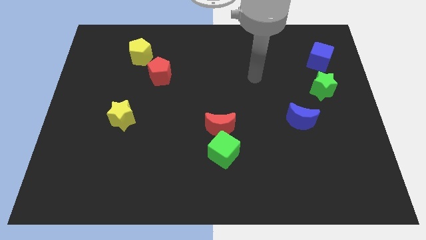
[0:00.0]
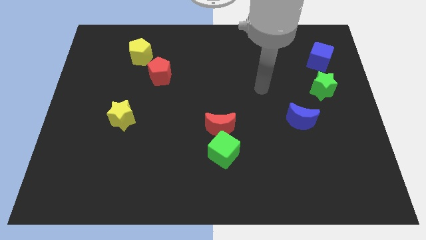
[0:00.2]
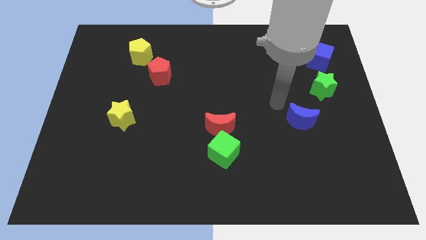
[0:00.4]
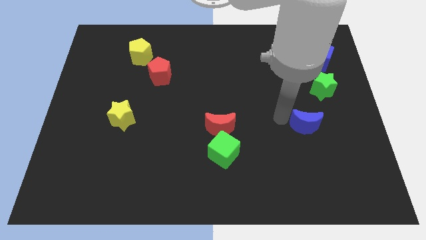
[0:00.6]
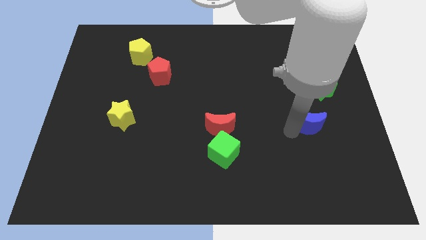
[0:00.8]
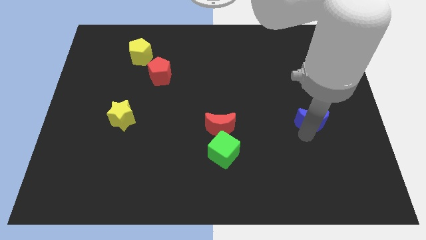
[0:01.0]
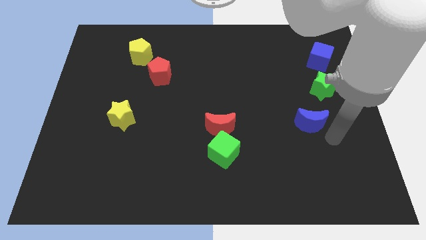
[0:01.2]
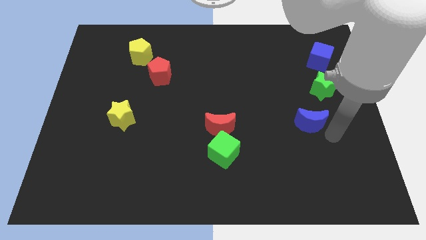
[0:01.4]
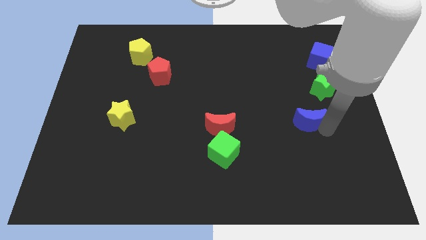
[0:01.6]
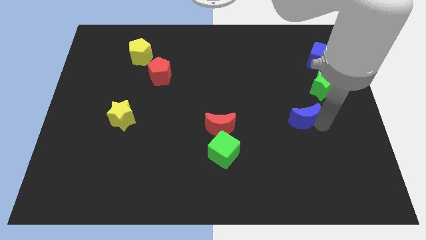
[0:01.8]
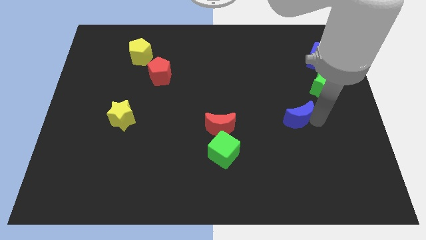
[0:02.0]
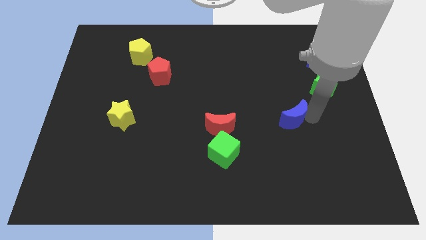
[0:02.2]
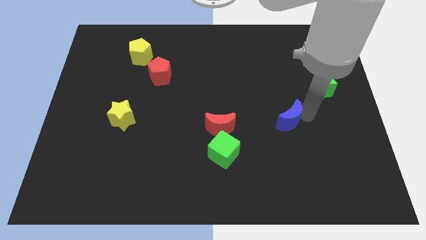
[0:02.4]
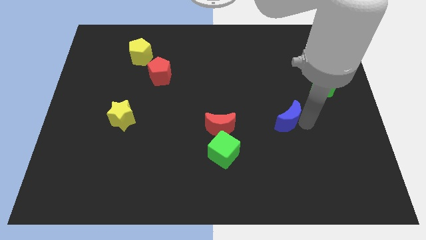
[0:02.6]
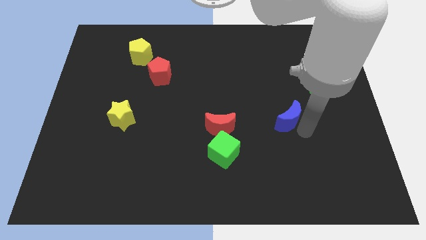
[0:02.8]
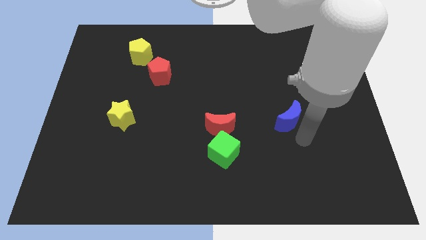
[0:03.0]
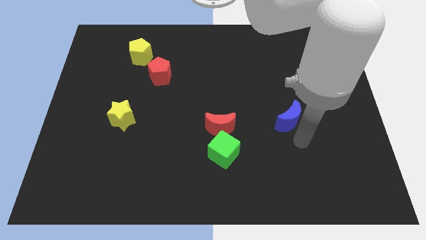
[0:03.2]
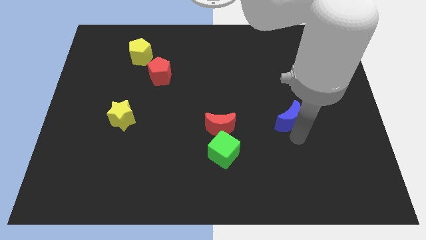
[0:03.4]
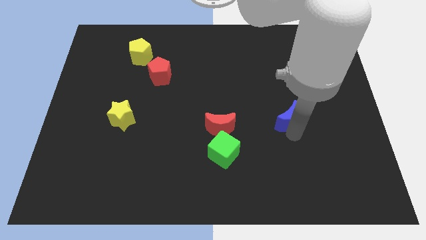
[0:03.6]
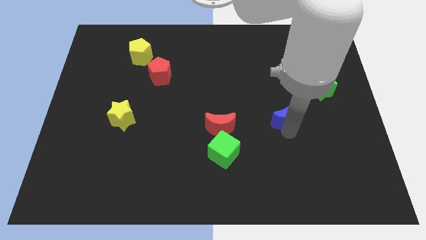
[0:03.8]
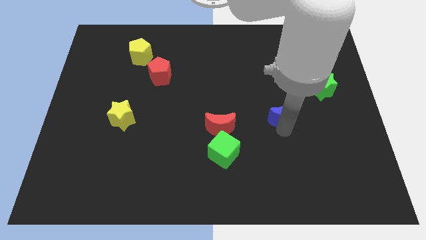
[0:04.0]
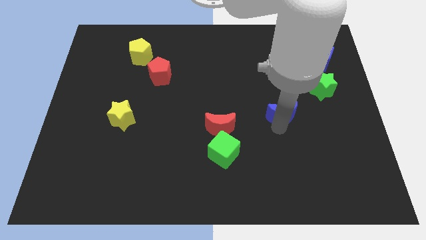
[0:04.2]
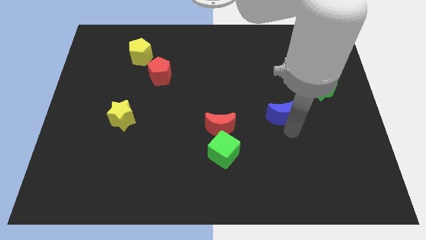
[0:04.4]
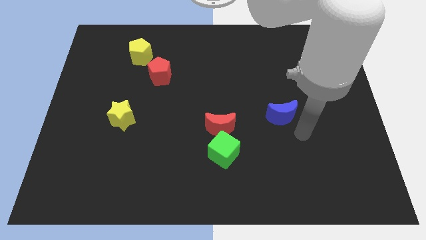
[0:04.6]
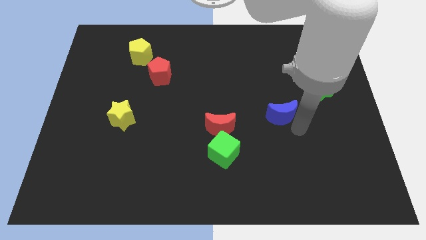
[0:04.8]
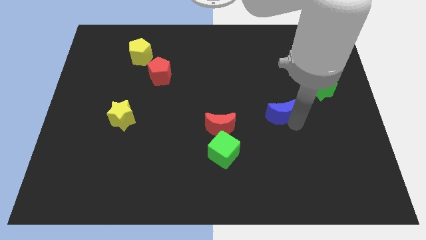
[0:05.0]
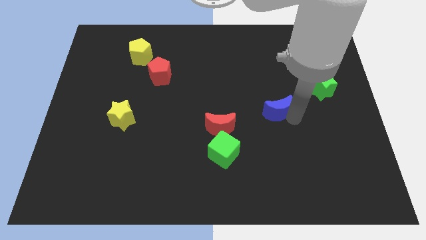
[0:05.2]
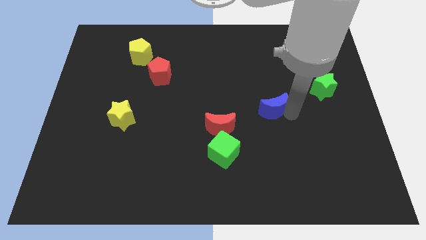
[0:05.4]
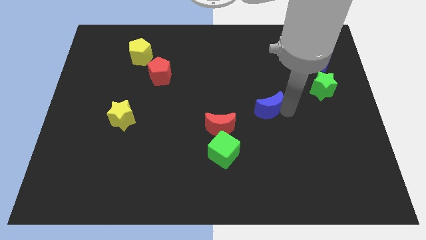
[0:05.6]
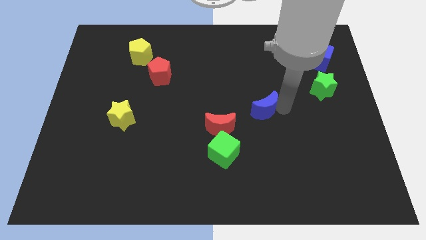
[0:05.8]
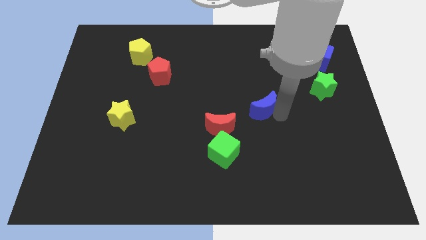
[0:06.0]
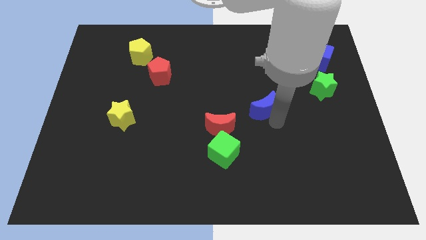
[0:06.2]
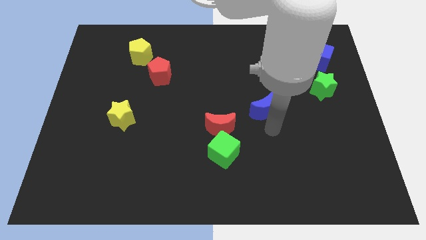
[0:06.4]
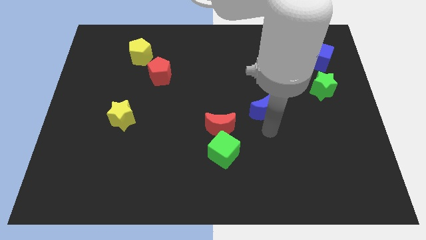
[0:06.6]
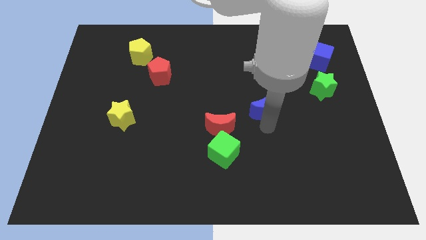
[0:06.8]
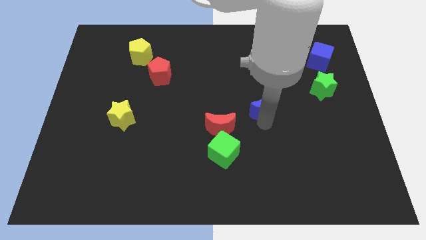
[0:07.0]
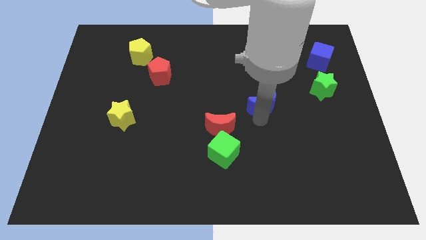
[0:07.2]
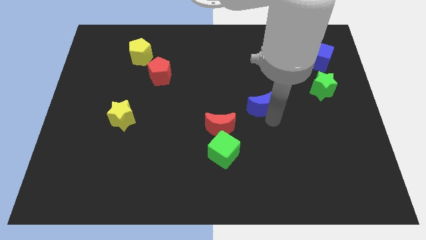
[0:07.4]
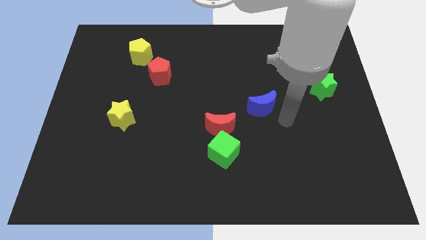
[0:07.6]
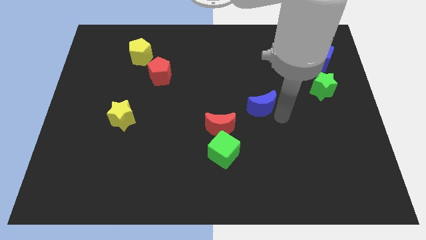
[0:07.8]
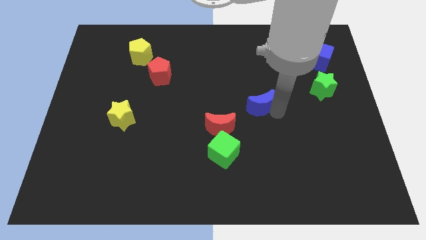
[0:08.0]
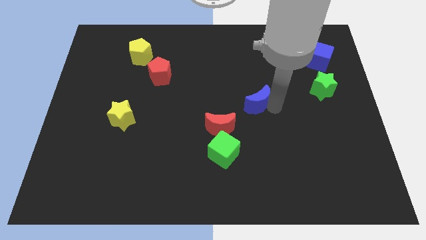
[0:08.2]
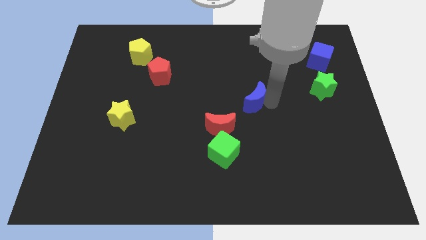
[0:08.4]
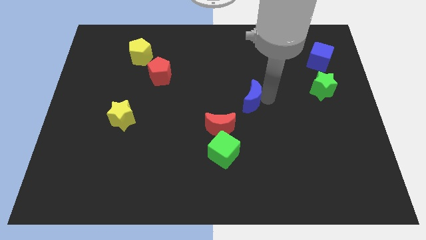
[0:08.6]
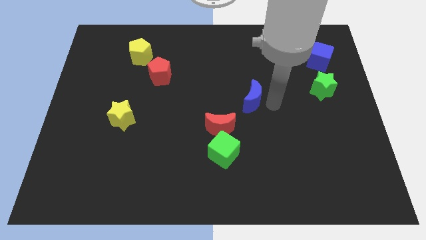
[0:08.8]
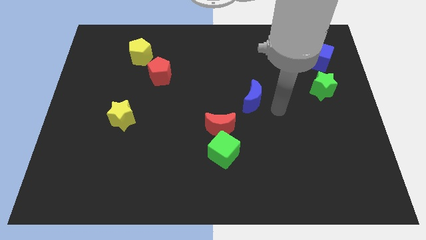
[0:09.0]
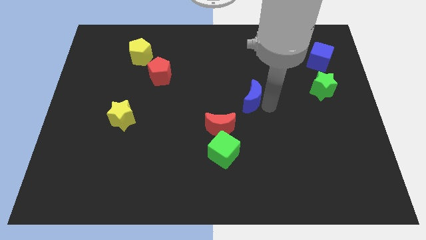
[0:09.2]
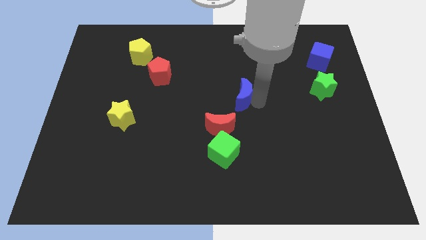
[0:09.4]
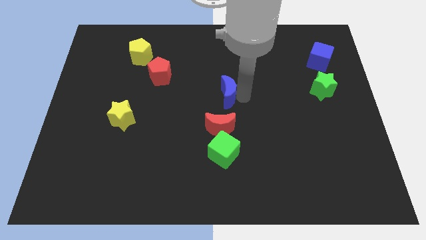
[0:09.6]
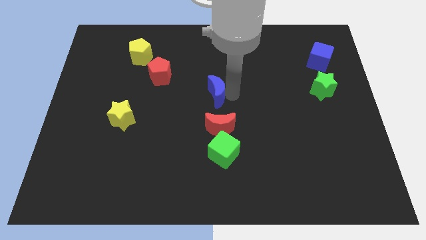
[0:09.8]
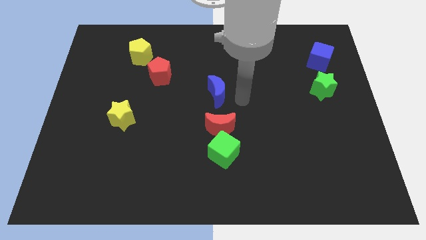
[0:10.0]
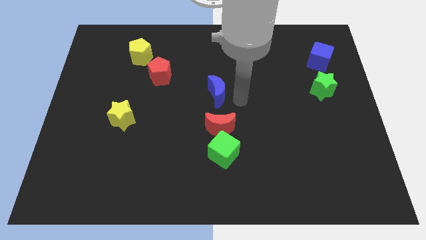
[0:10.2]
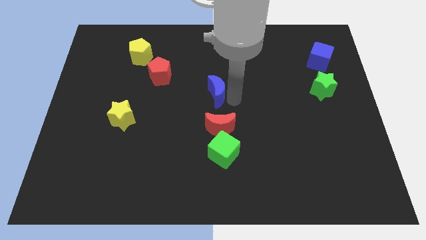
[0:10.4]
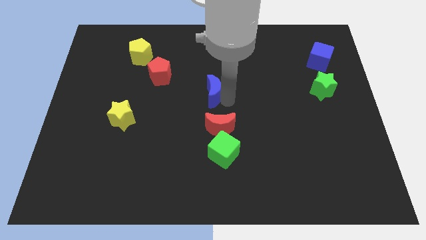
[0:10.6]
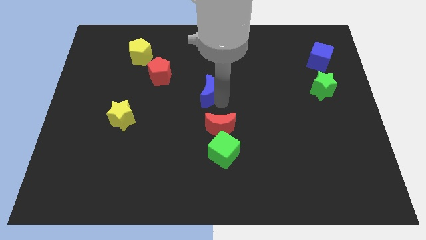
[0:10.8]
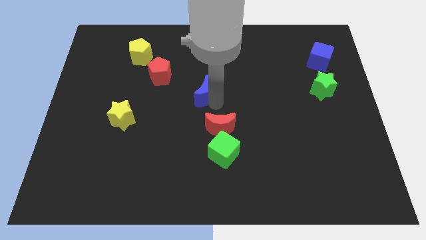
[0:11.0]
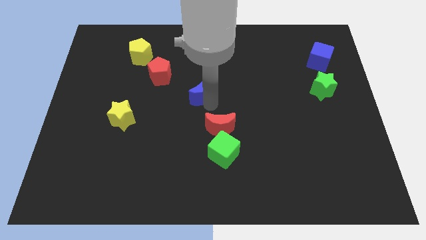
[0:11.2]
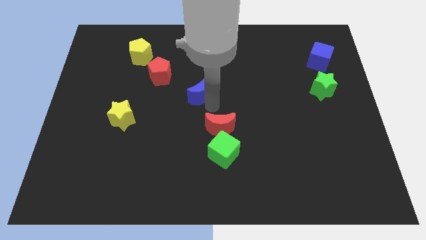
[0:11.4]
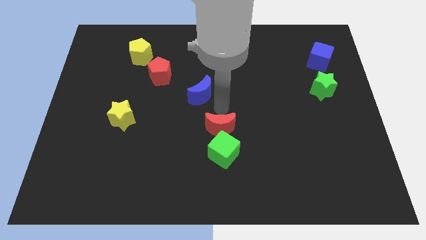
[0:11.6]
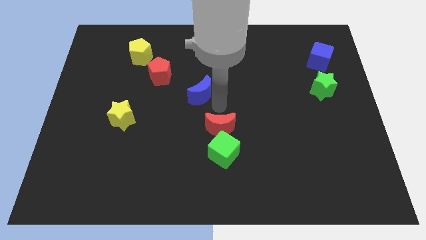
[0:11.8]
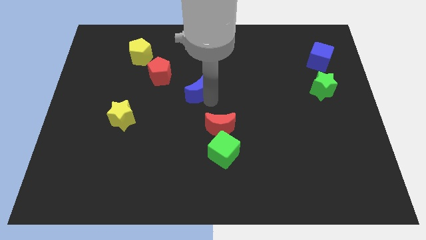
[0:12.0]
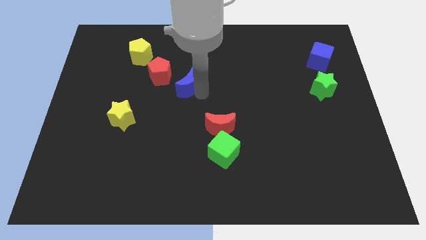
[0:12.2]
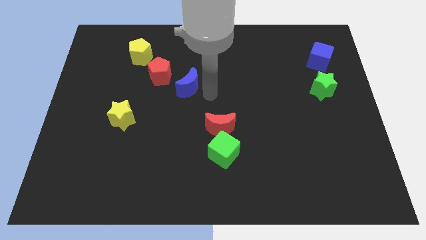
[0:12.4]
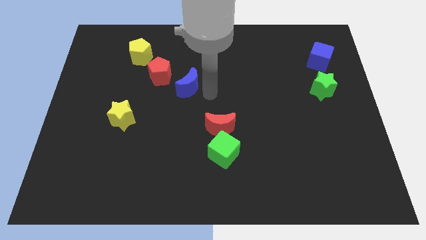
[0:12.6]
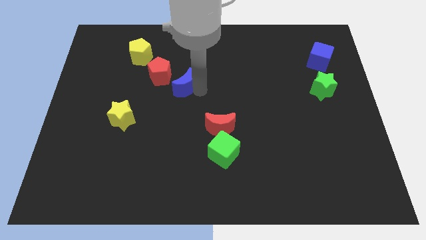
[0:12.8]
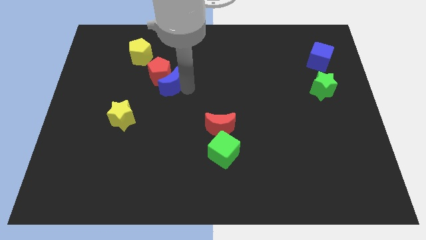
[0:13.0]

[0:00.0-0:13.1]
move the blue moon next to the red pentagon

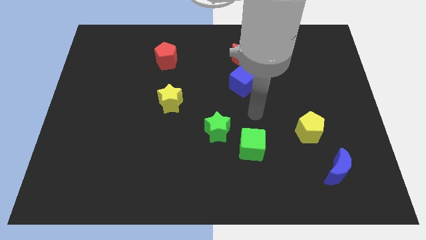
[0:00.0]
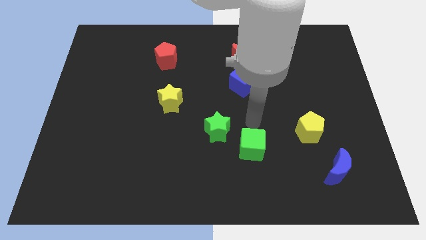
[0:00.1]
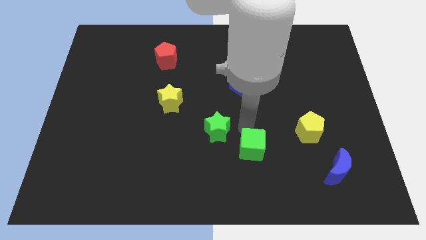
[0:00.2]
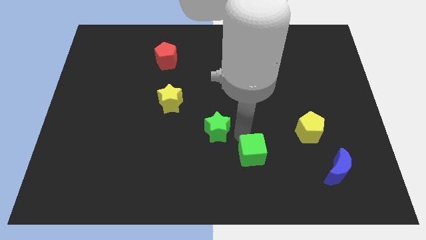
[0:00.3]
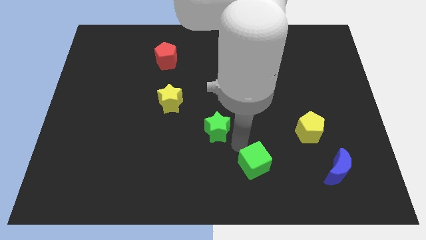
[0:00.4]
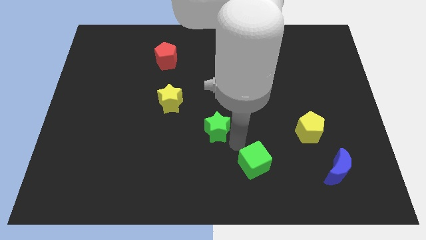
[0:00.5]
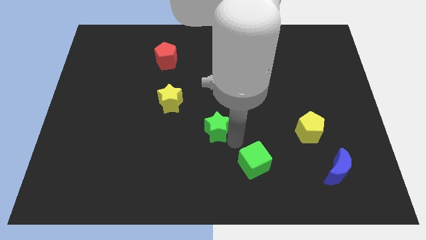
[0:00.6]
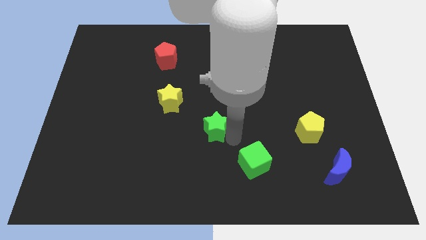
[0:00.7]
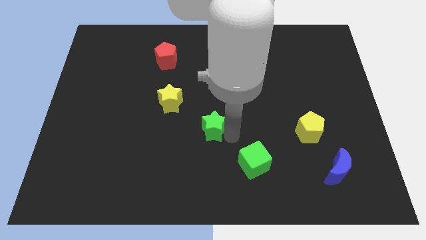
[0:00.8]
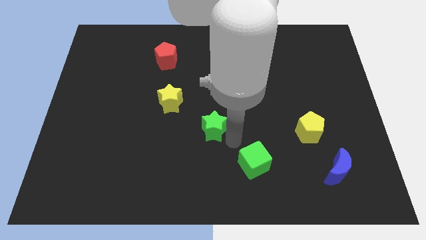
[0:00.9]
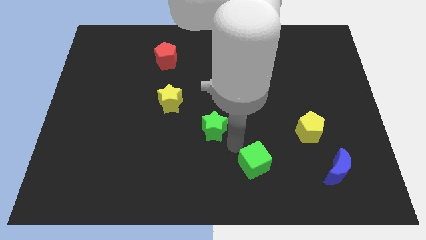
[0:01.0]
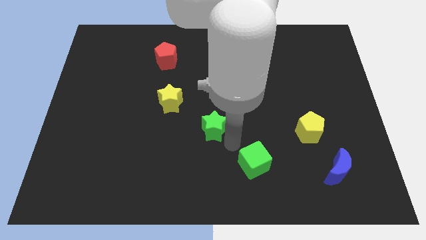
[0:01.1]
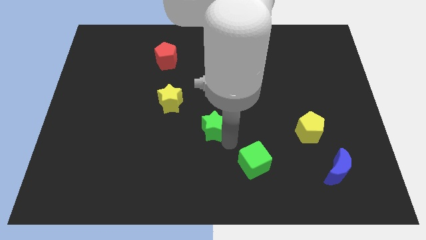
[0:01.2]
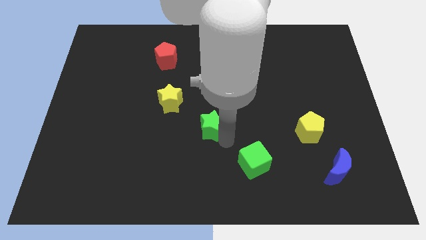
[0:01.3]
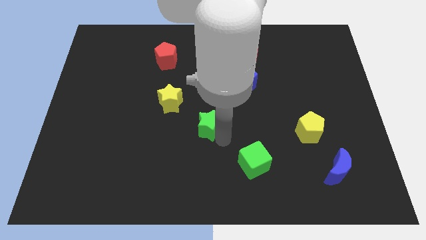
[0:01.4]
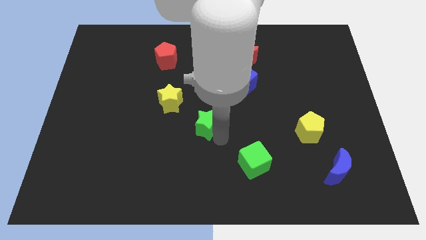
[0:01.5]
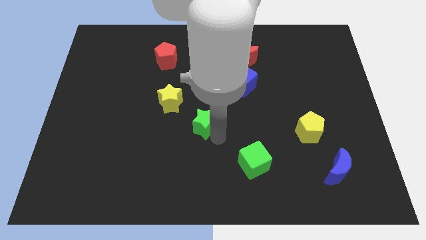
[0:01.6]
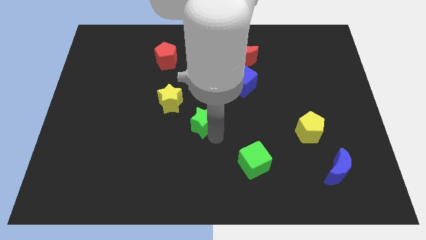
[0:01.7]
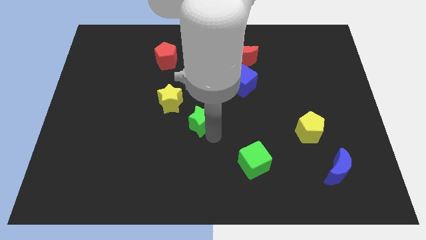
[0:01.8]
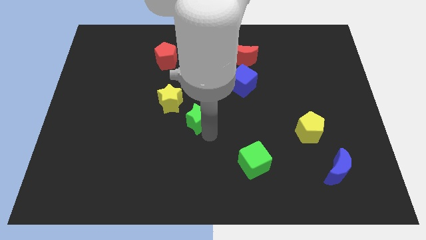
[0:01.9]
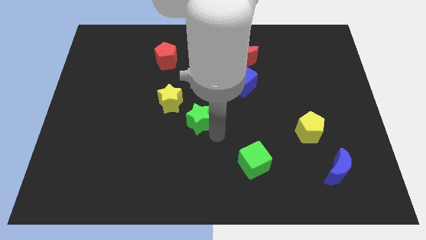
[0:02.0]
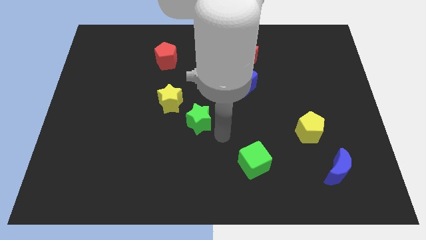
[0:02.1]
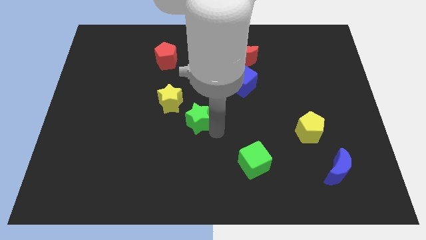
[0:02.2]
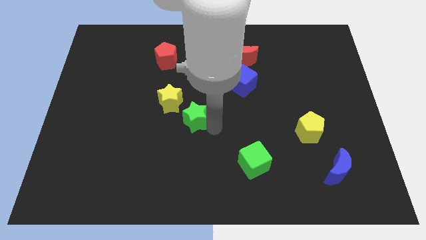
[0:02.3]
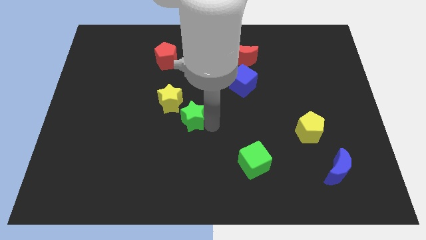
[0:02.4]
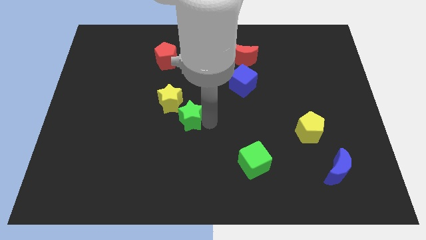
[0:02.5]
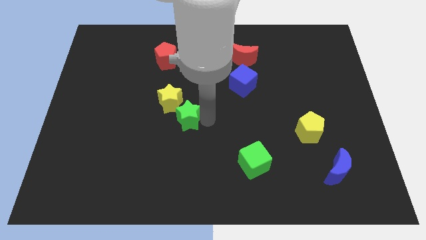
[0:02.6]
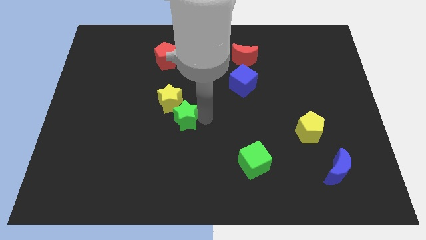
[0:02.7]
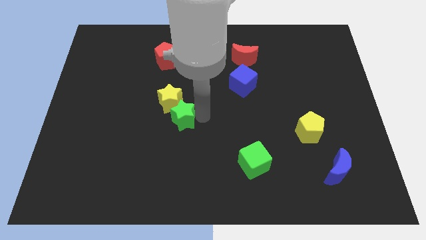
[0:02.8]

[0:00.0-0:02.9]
move the green star next to the yellow star
